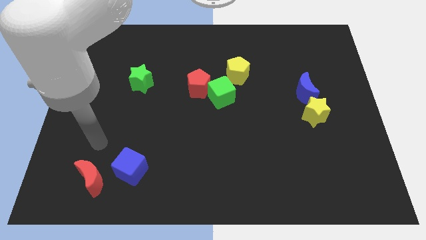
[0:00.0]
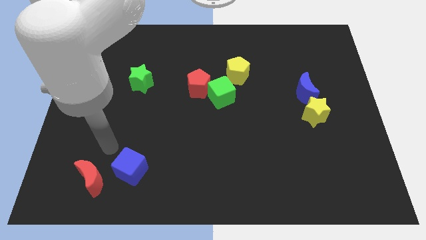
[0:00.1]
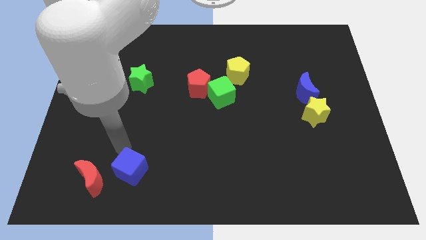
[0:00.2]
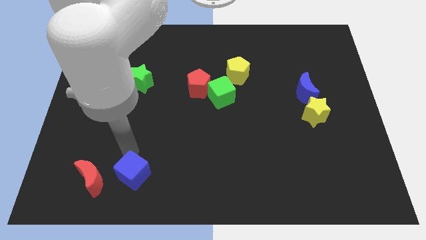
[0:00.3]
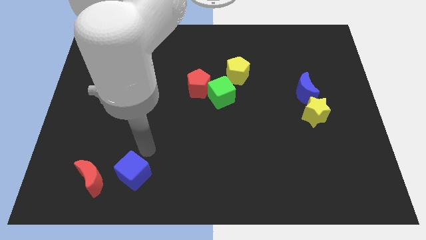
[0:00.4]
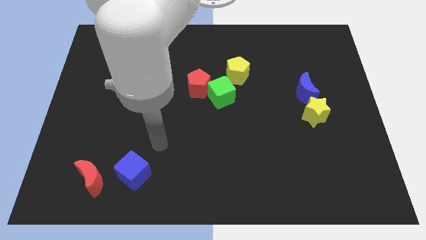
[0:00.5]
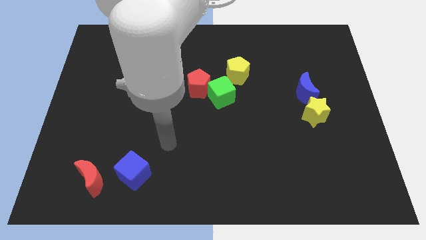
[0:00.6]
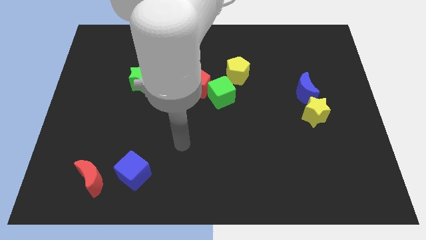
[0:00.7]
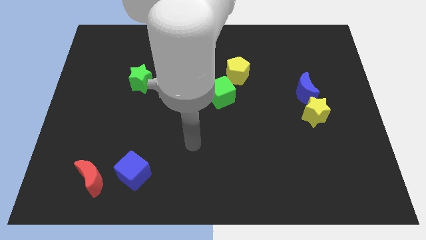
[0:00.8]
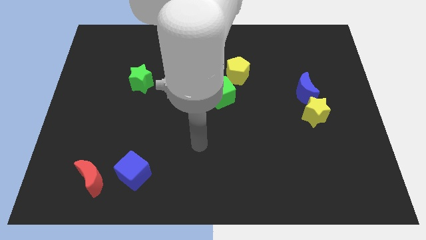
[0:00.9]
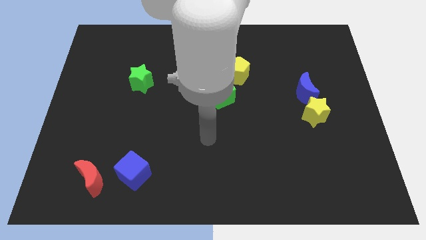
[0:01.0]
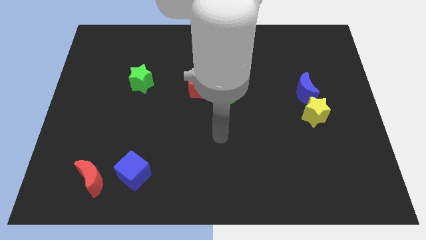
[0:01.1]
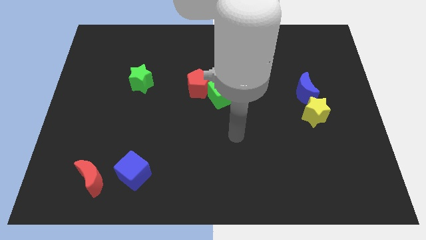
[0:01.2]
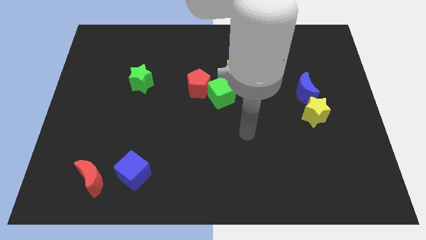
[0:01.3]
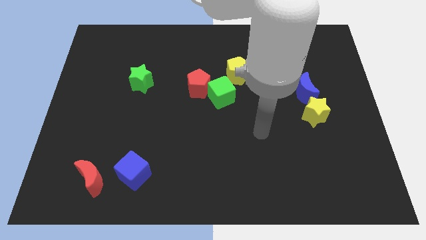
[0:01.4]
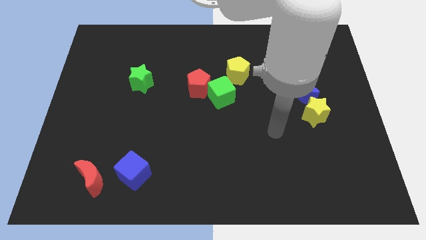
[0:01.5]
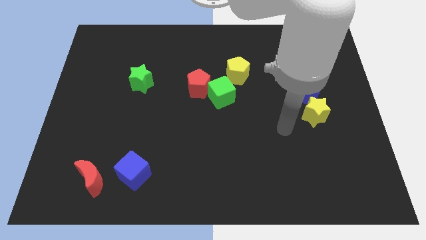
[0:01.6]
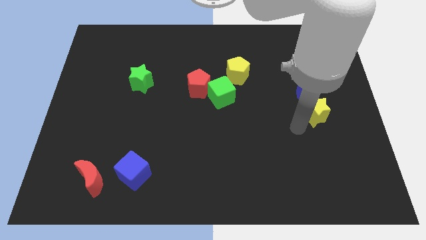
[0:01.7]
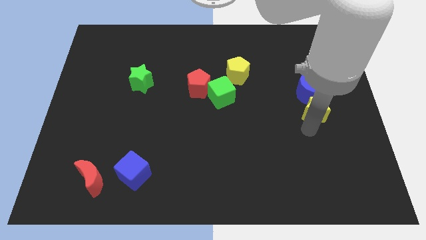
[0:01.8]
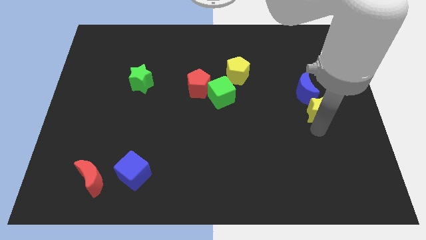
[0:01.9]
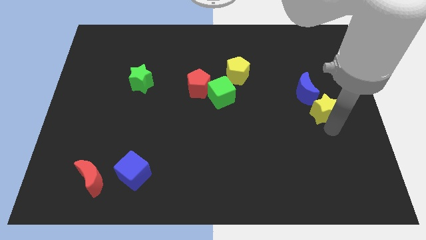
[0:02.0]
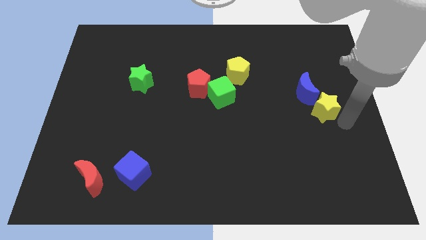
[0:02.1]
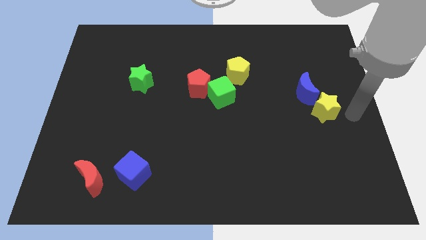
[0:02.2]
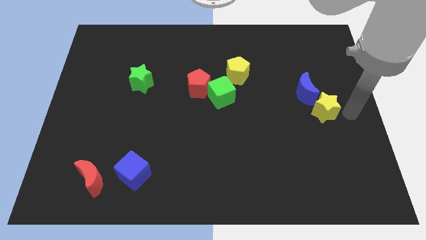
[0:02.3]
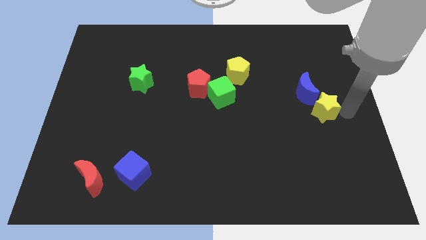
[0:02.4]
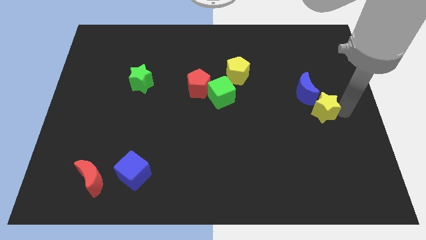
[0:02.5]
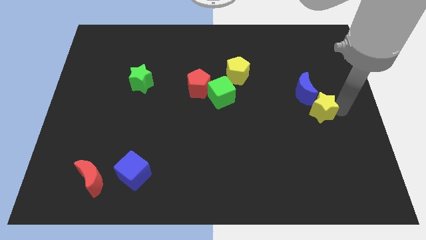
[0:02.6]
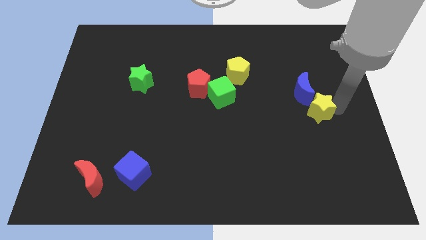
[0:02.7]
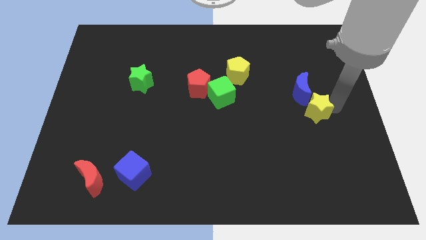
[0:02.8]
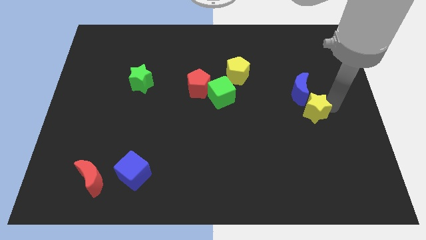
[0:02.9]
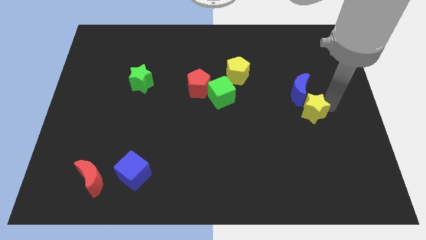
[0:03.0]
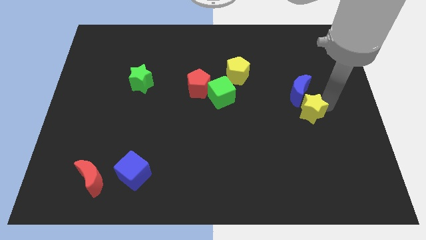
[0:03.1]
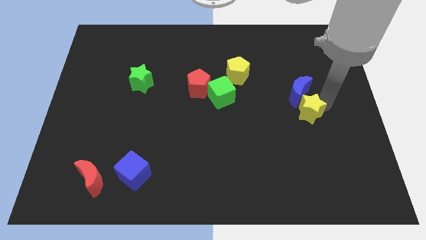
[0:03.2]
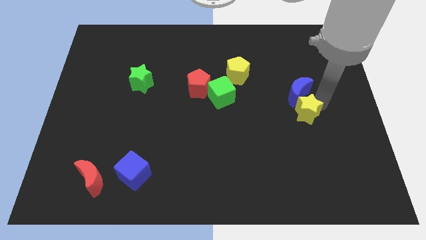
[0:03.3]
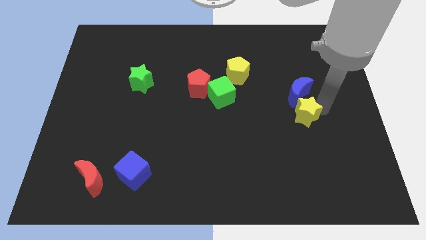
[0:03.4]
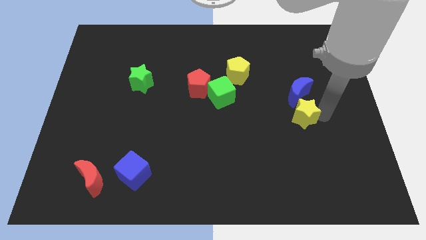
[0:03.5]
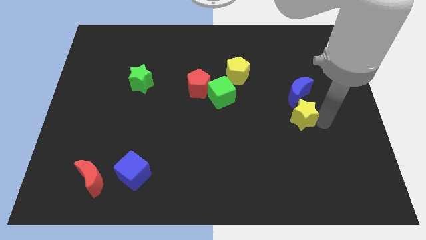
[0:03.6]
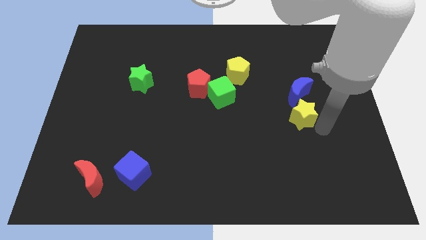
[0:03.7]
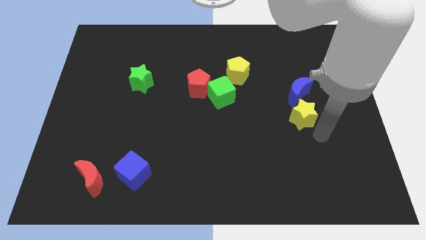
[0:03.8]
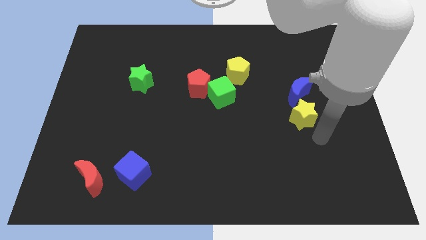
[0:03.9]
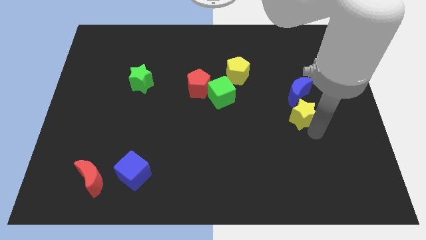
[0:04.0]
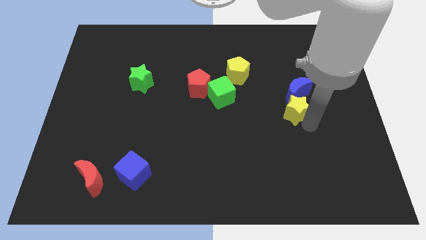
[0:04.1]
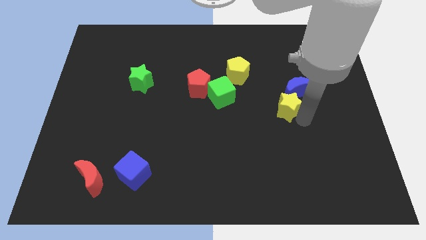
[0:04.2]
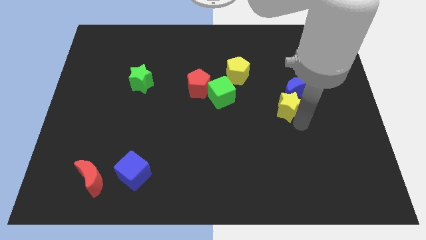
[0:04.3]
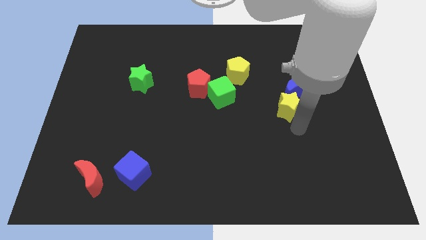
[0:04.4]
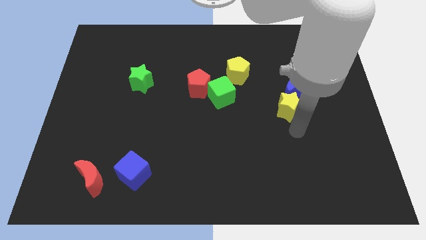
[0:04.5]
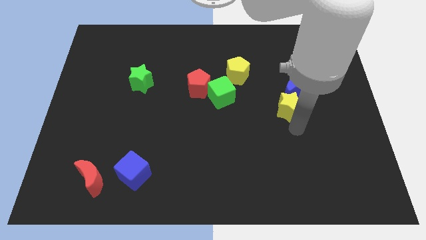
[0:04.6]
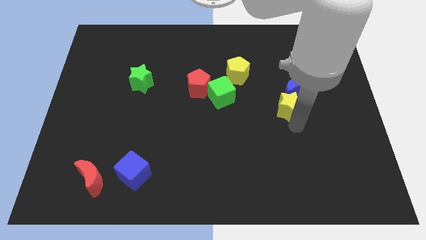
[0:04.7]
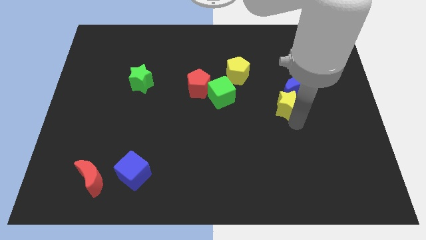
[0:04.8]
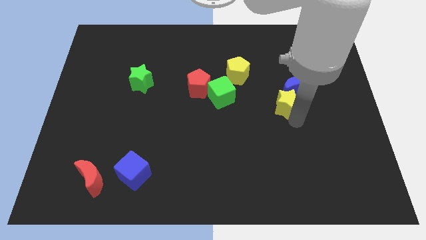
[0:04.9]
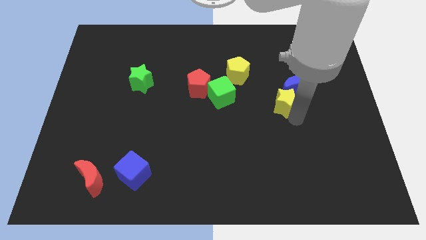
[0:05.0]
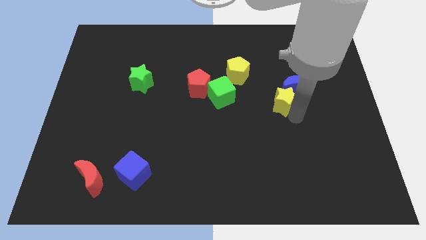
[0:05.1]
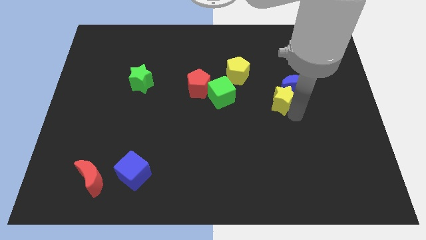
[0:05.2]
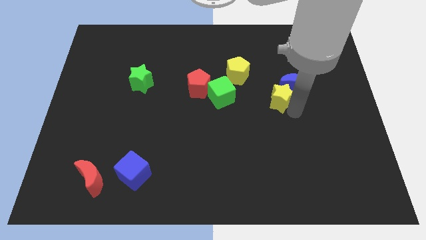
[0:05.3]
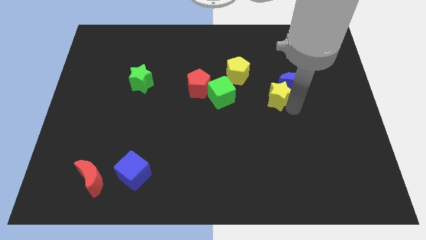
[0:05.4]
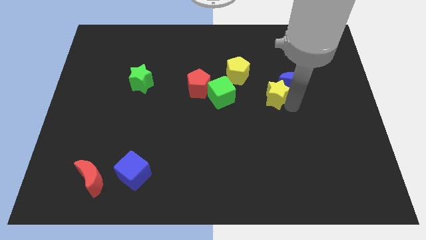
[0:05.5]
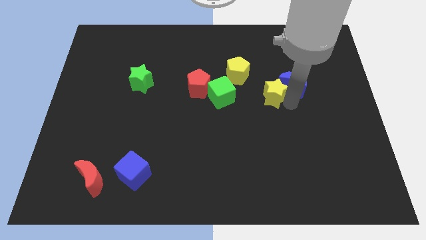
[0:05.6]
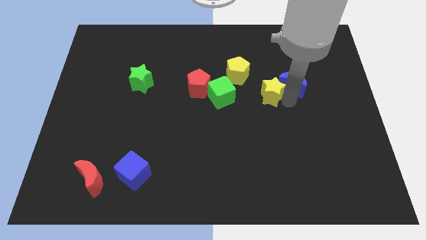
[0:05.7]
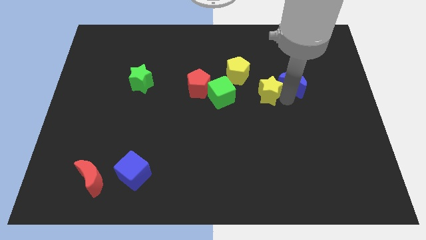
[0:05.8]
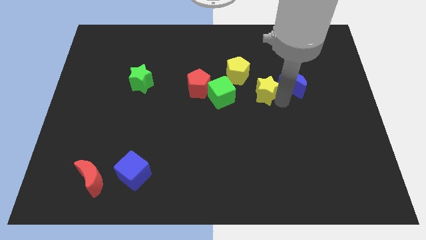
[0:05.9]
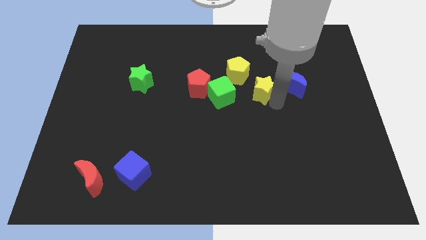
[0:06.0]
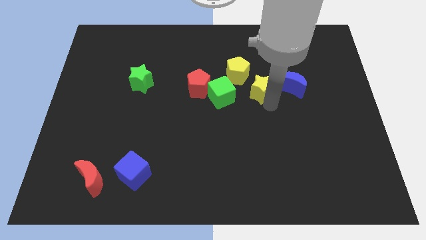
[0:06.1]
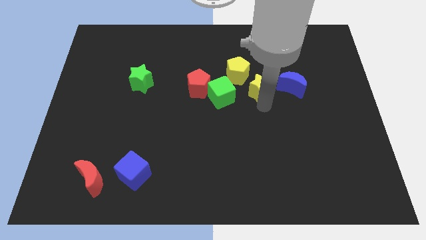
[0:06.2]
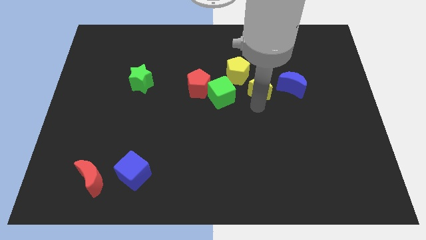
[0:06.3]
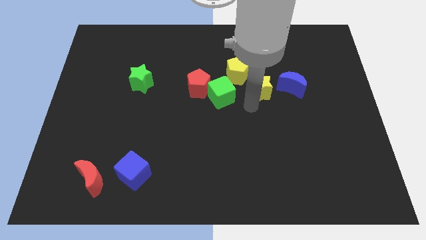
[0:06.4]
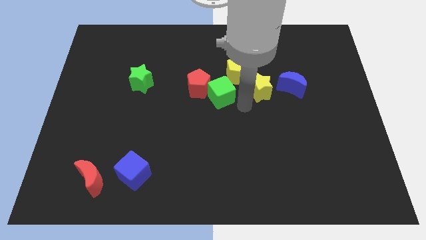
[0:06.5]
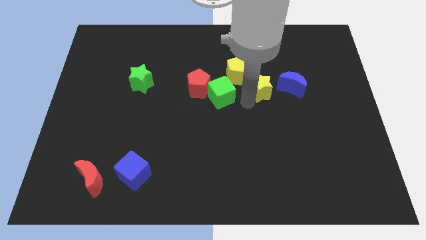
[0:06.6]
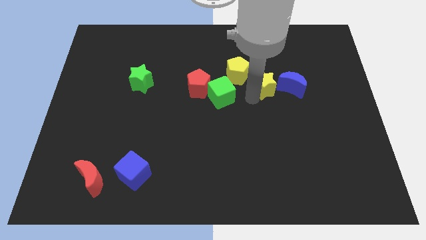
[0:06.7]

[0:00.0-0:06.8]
slide the yellow star just right of the yellow pentagon

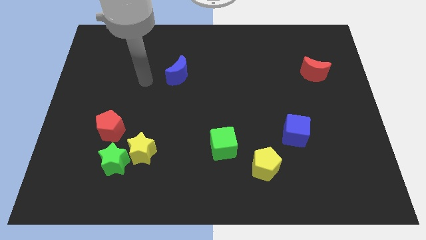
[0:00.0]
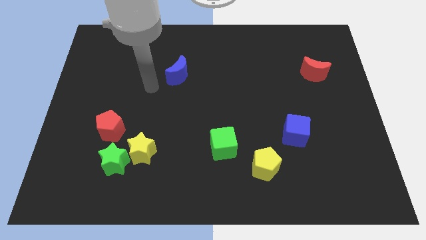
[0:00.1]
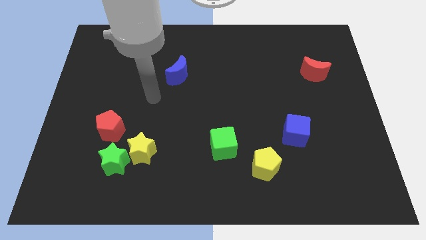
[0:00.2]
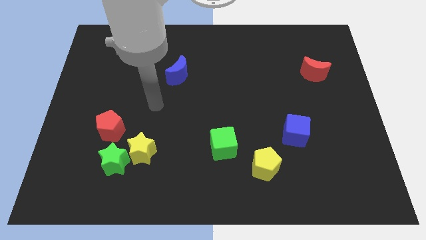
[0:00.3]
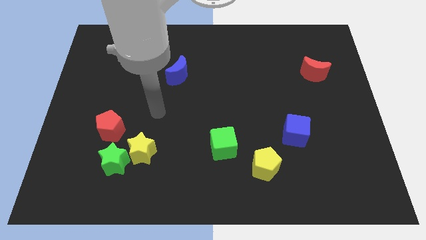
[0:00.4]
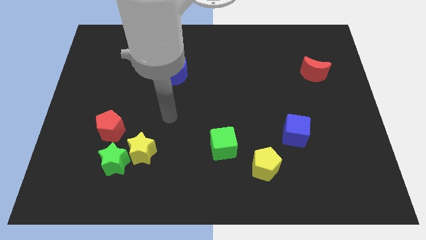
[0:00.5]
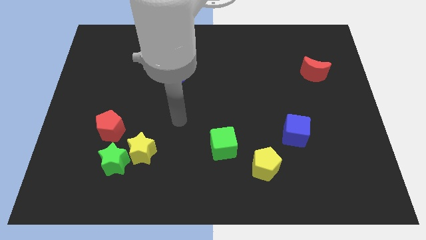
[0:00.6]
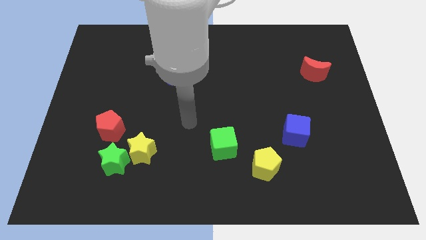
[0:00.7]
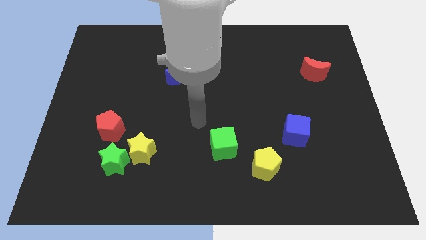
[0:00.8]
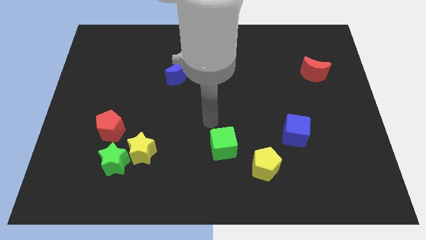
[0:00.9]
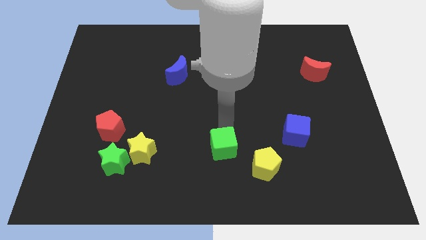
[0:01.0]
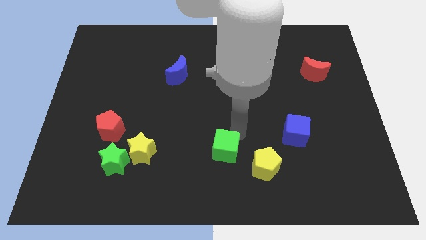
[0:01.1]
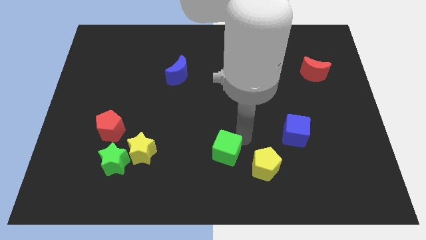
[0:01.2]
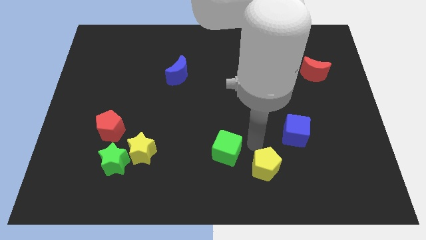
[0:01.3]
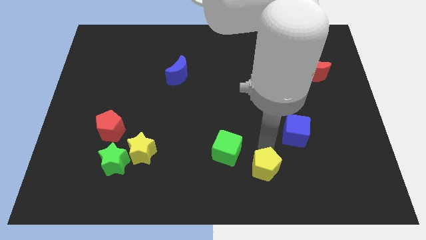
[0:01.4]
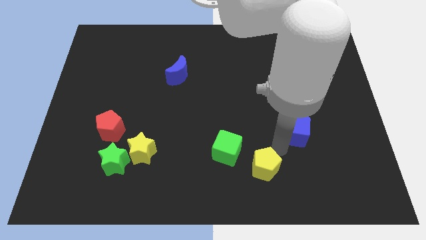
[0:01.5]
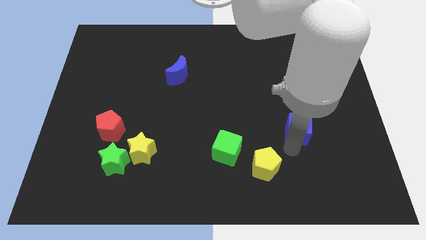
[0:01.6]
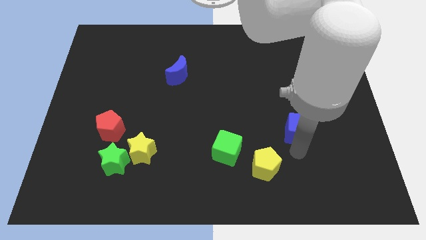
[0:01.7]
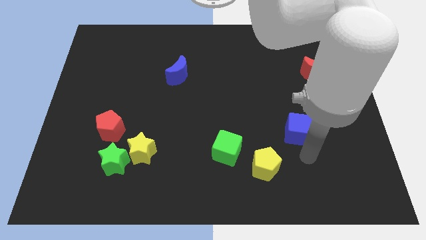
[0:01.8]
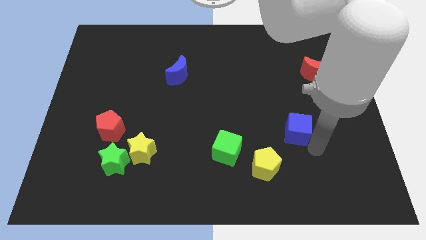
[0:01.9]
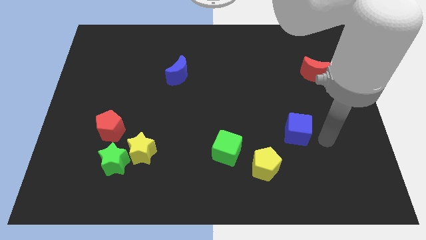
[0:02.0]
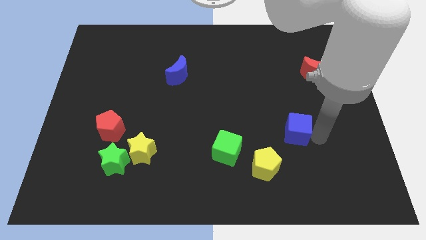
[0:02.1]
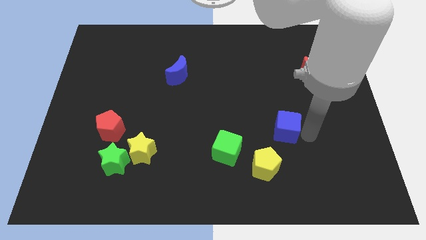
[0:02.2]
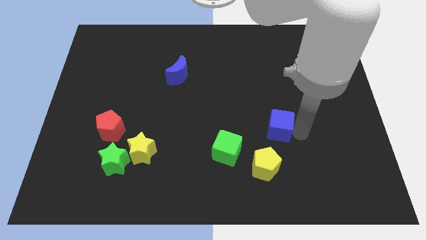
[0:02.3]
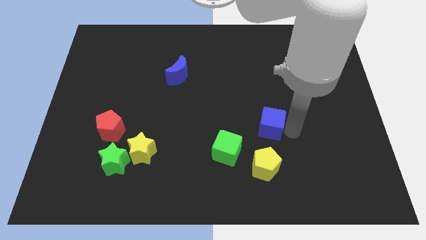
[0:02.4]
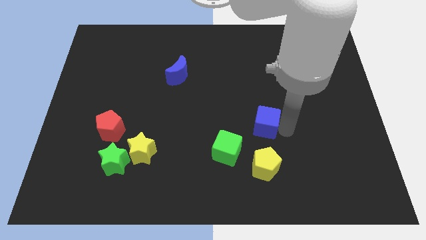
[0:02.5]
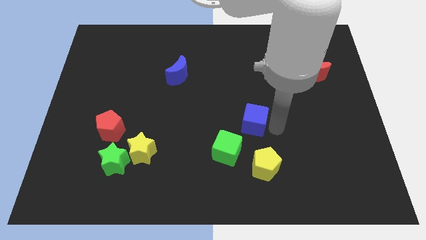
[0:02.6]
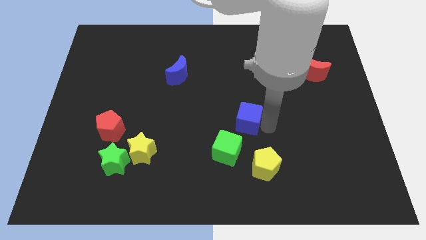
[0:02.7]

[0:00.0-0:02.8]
push the blue cube to the top of the green cube
